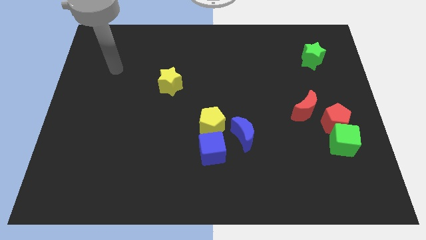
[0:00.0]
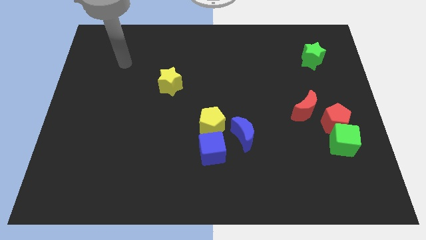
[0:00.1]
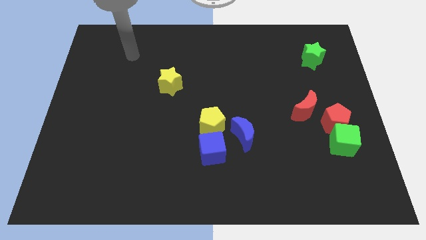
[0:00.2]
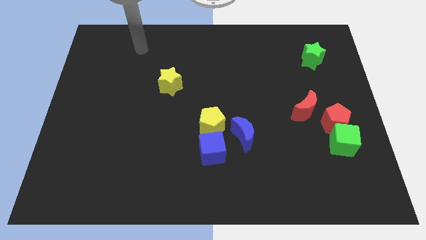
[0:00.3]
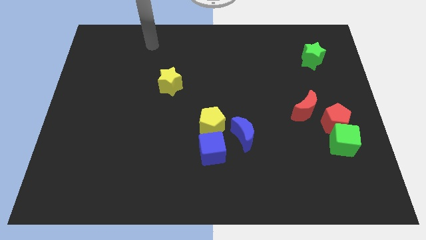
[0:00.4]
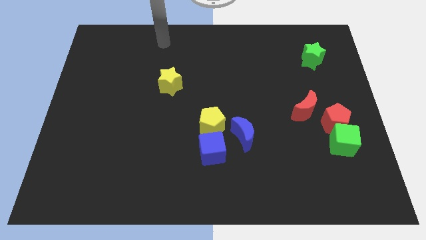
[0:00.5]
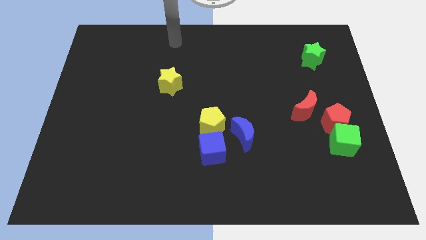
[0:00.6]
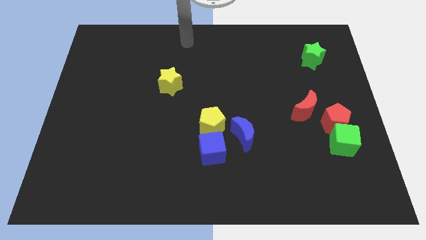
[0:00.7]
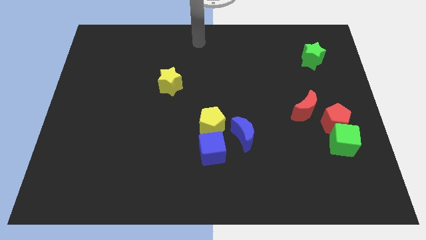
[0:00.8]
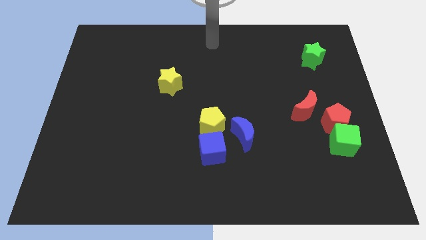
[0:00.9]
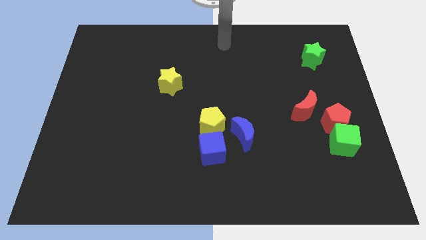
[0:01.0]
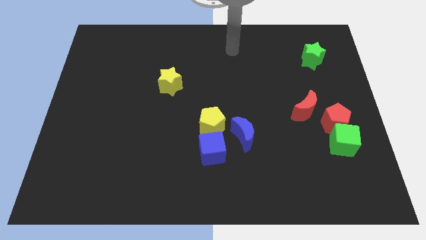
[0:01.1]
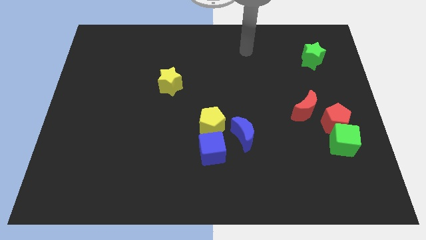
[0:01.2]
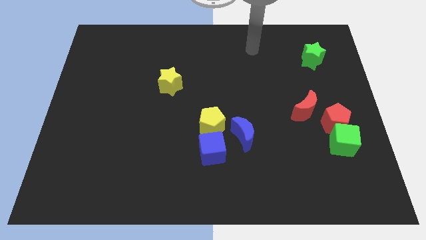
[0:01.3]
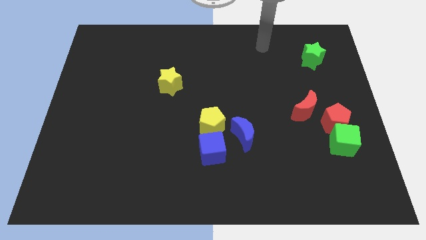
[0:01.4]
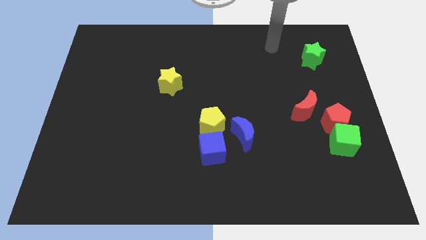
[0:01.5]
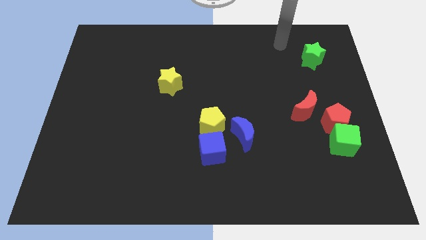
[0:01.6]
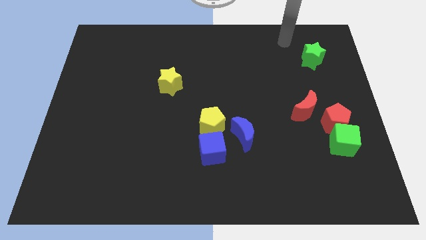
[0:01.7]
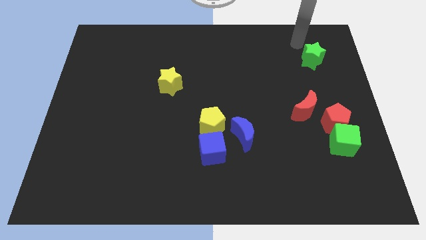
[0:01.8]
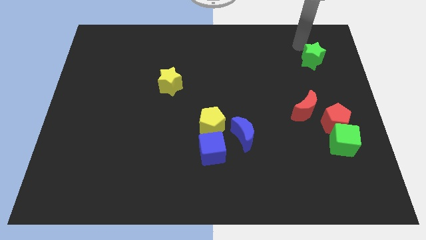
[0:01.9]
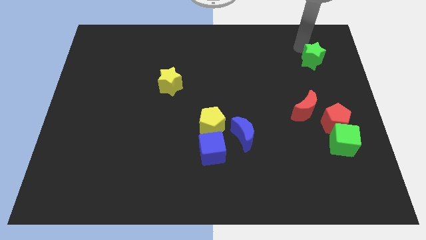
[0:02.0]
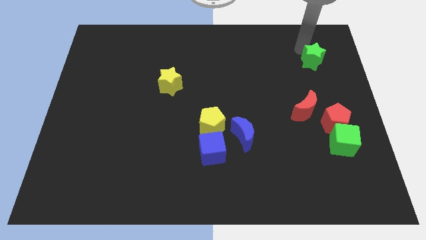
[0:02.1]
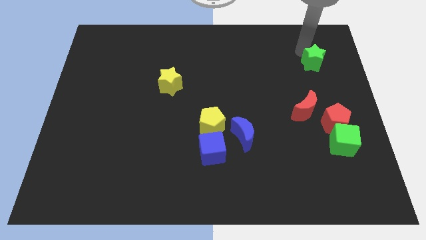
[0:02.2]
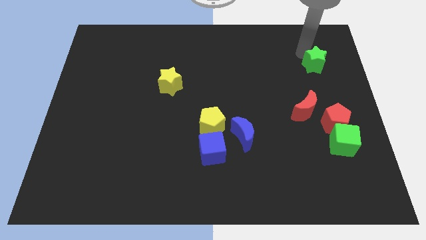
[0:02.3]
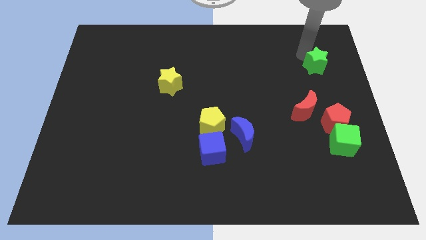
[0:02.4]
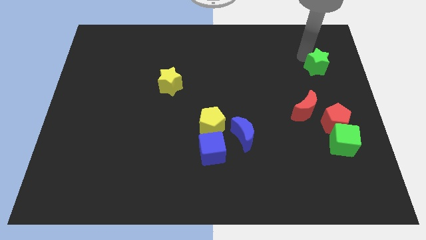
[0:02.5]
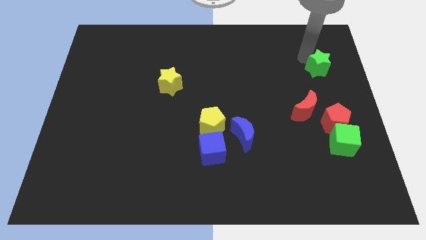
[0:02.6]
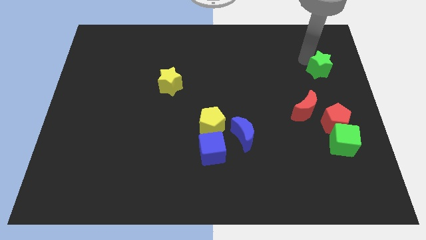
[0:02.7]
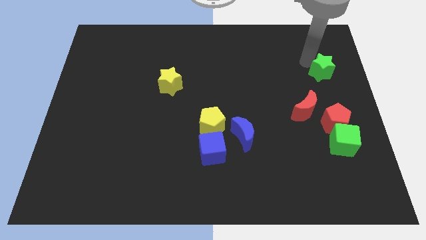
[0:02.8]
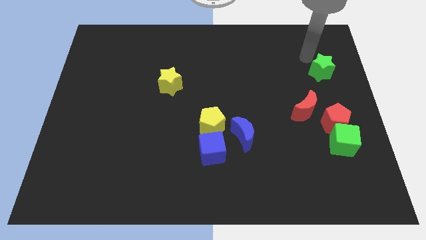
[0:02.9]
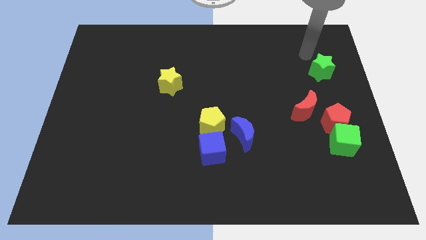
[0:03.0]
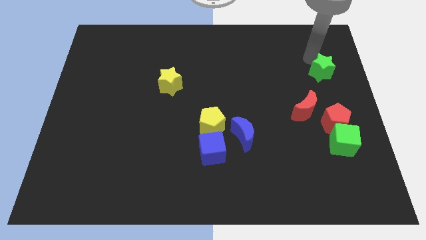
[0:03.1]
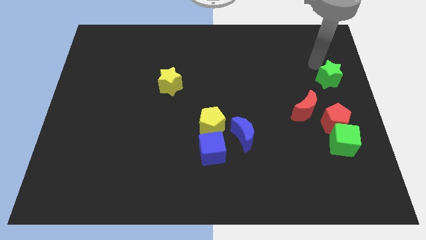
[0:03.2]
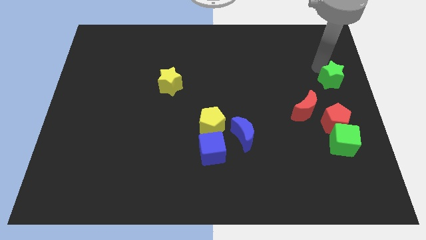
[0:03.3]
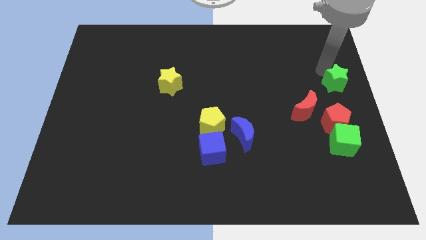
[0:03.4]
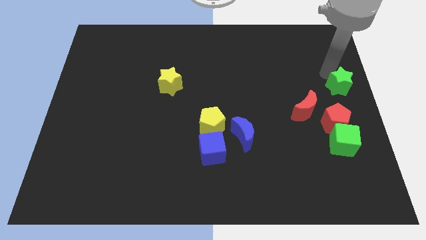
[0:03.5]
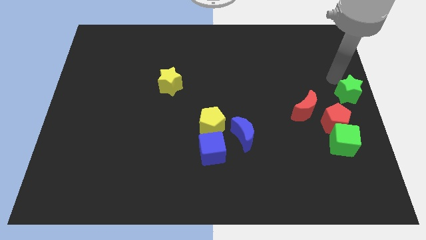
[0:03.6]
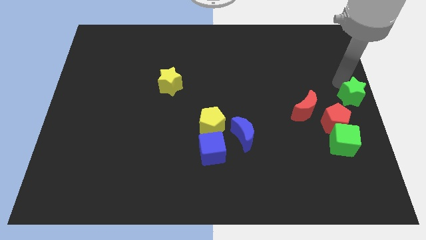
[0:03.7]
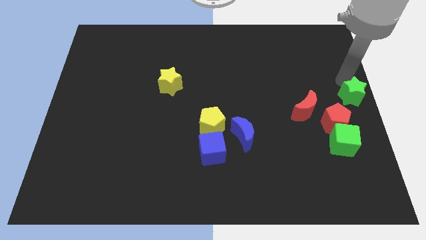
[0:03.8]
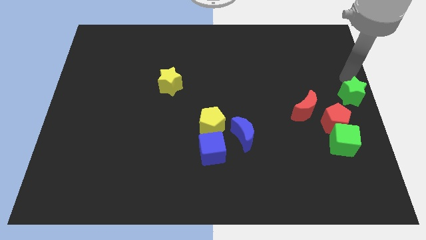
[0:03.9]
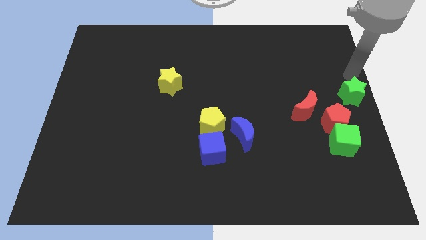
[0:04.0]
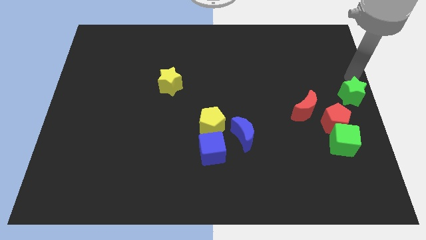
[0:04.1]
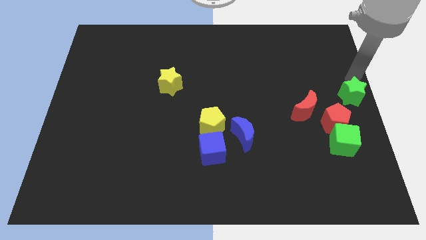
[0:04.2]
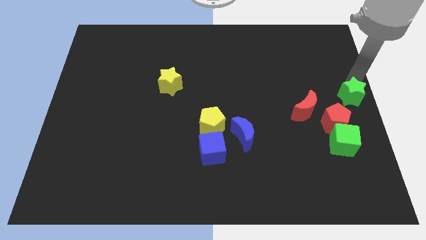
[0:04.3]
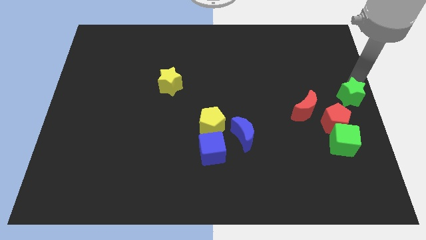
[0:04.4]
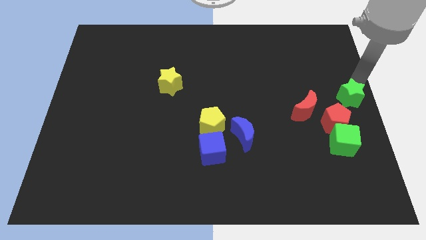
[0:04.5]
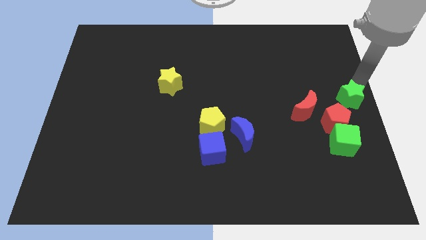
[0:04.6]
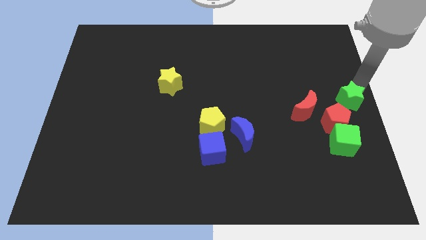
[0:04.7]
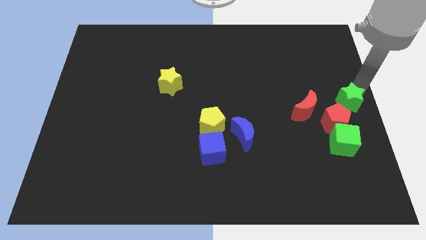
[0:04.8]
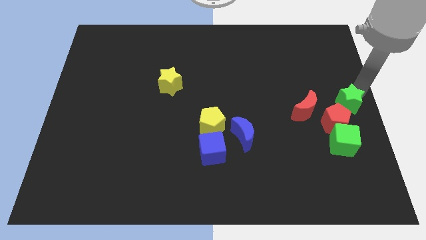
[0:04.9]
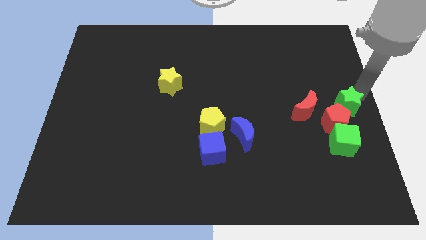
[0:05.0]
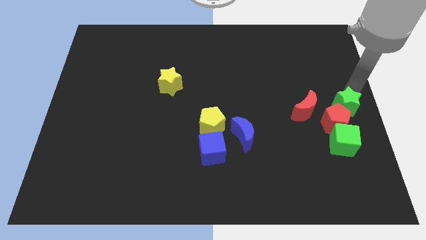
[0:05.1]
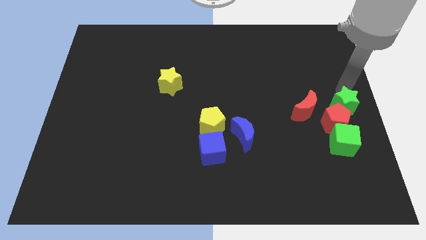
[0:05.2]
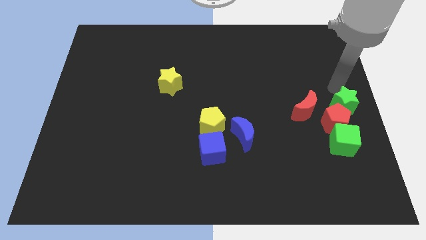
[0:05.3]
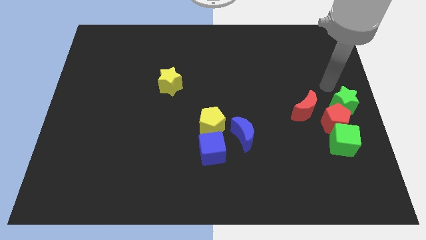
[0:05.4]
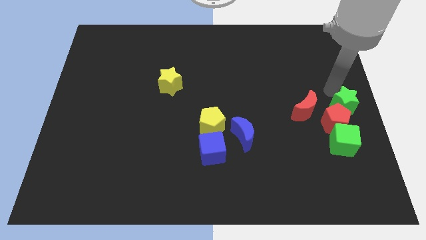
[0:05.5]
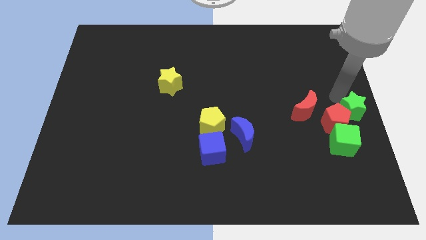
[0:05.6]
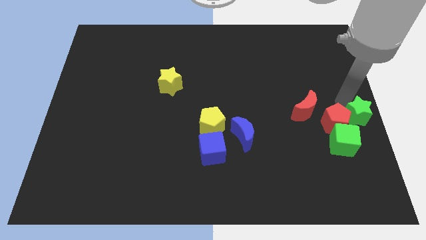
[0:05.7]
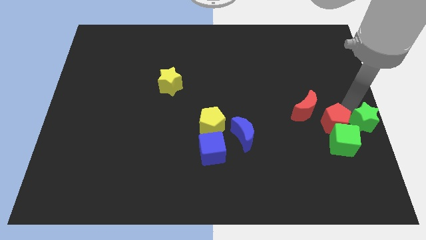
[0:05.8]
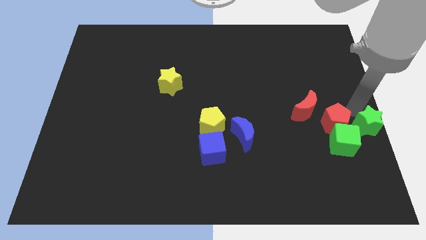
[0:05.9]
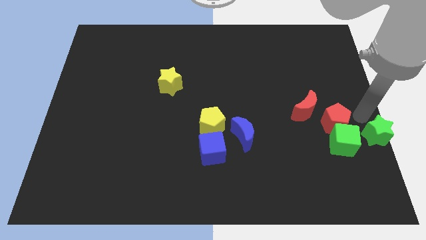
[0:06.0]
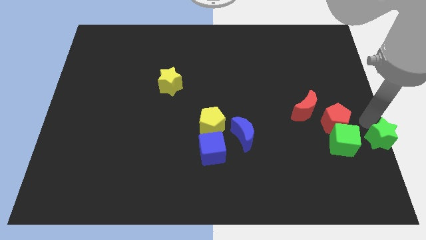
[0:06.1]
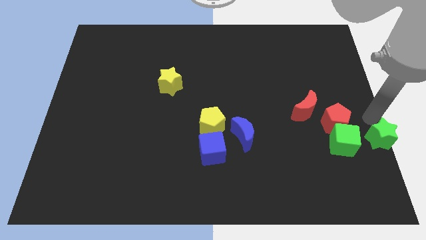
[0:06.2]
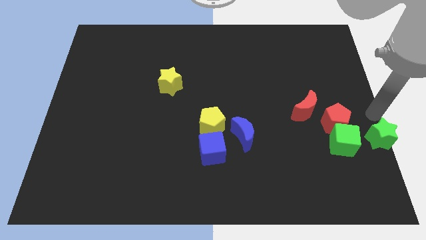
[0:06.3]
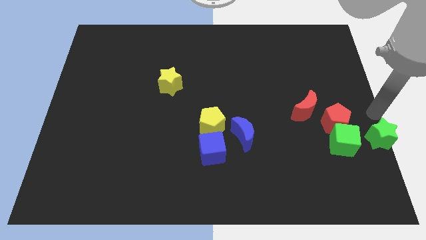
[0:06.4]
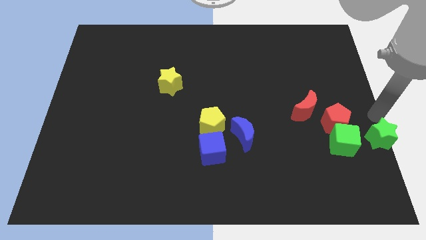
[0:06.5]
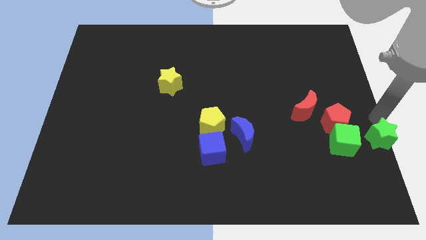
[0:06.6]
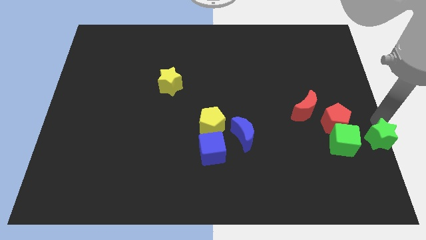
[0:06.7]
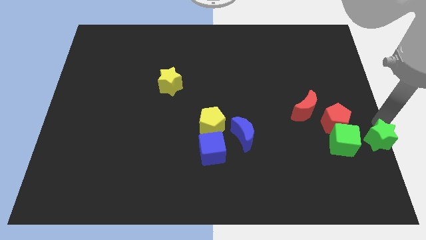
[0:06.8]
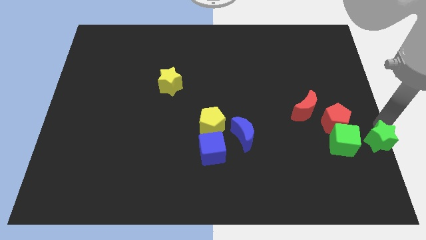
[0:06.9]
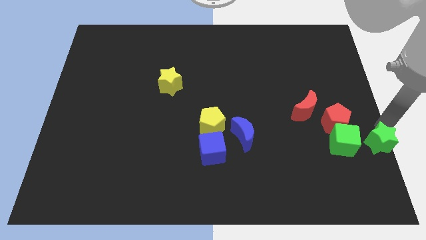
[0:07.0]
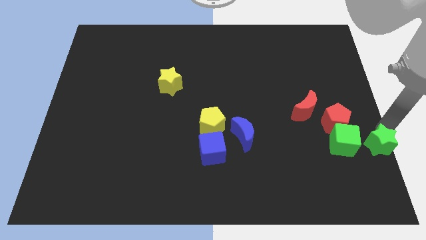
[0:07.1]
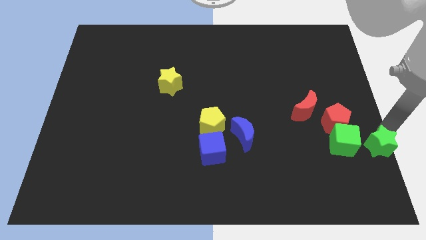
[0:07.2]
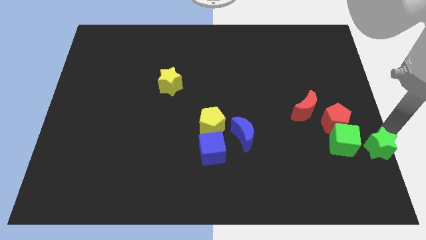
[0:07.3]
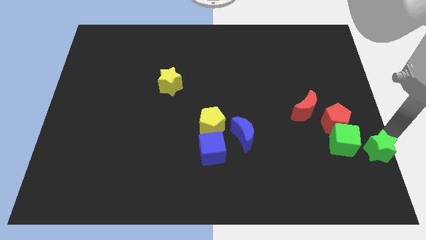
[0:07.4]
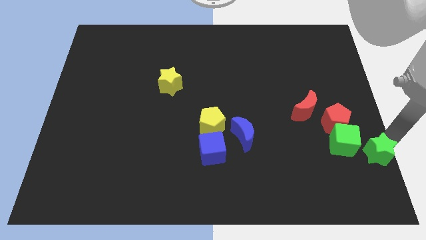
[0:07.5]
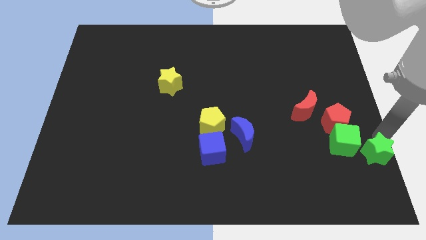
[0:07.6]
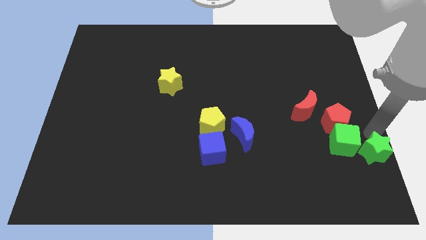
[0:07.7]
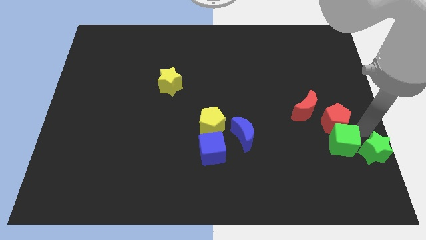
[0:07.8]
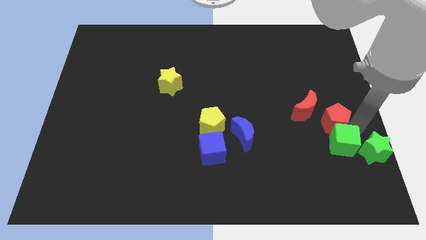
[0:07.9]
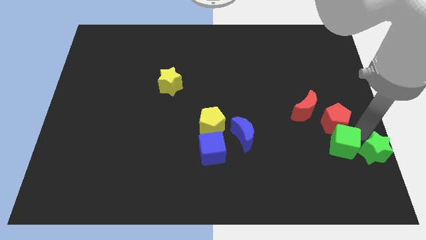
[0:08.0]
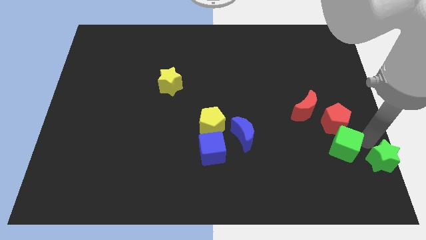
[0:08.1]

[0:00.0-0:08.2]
move the green star to the bottom right corner
